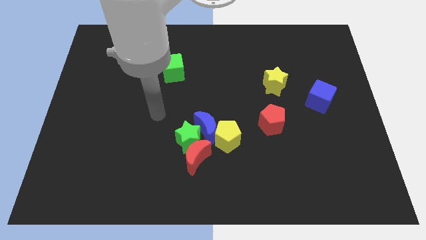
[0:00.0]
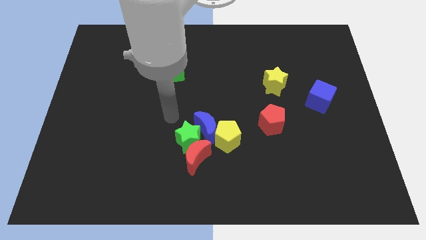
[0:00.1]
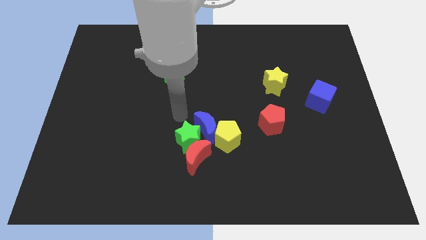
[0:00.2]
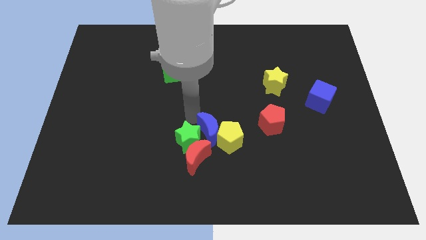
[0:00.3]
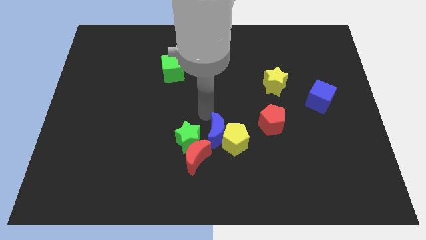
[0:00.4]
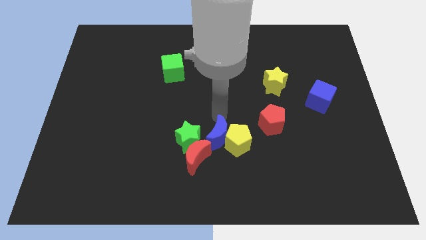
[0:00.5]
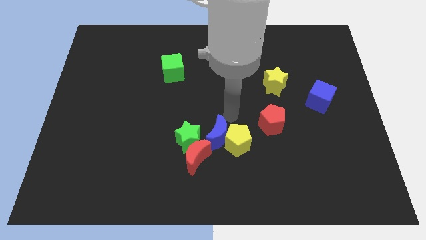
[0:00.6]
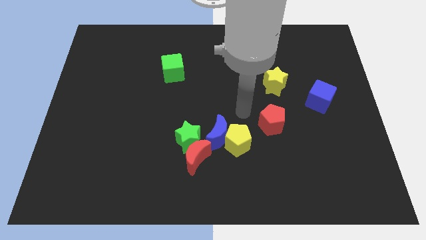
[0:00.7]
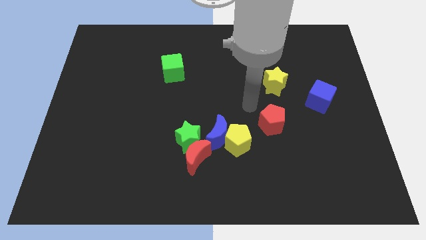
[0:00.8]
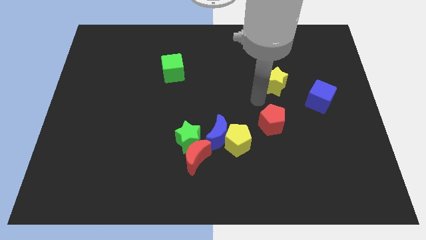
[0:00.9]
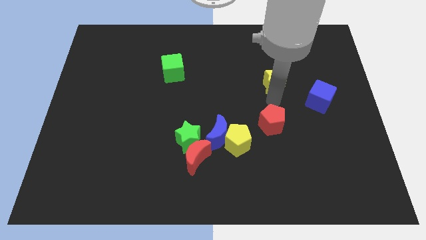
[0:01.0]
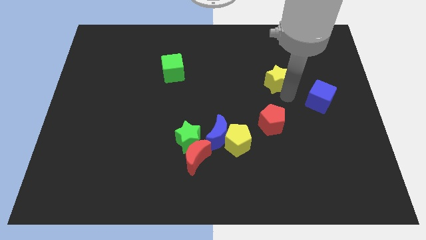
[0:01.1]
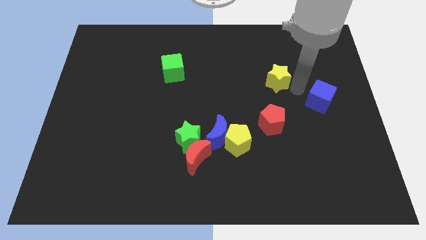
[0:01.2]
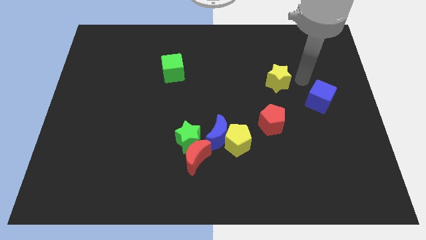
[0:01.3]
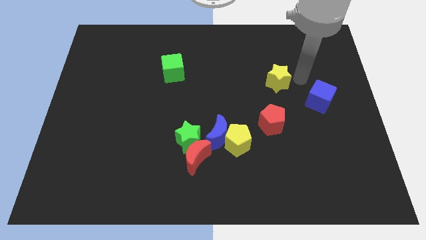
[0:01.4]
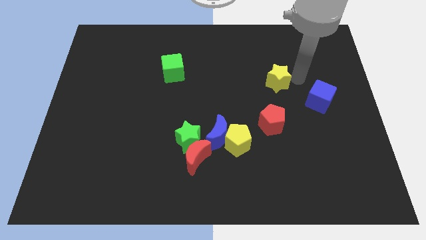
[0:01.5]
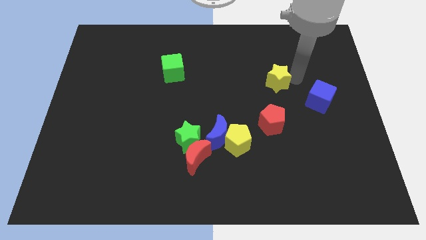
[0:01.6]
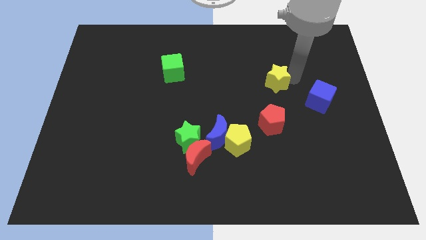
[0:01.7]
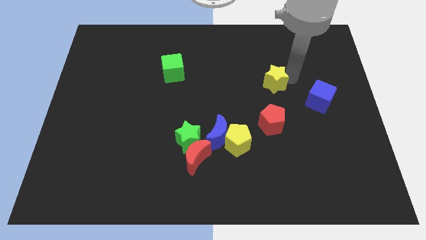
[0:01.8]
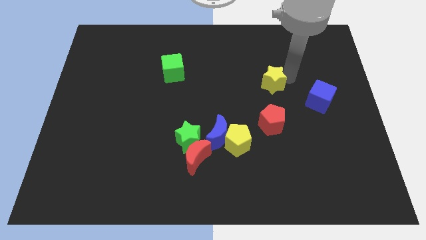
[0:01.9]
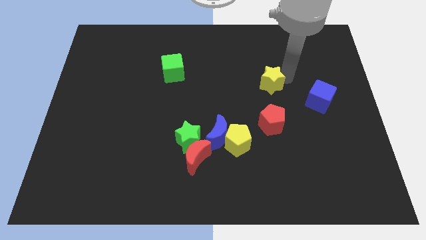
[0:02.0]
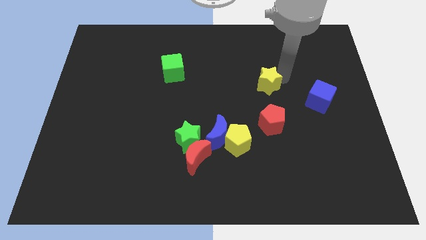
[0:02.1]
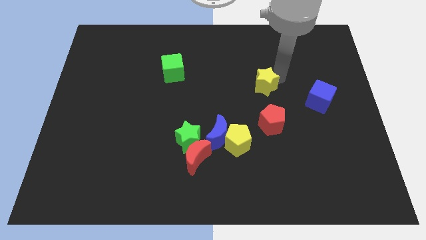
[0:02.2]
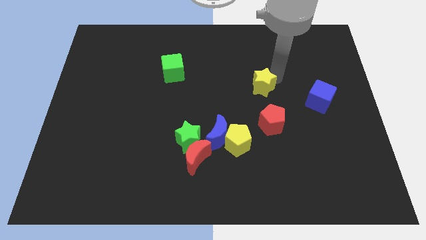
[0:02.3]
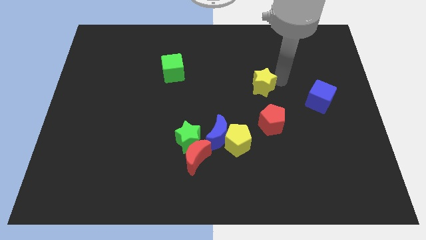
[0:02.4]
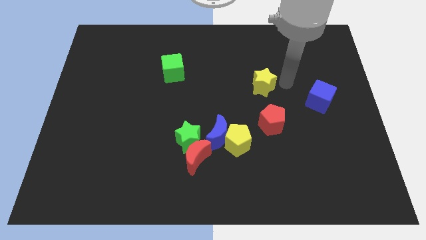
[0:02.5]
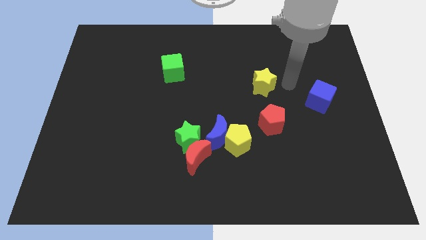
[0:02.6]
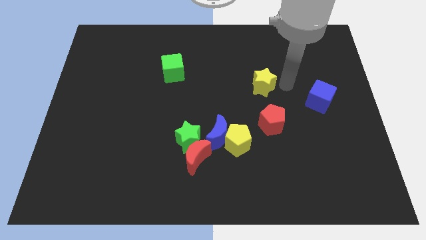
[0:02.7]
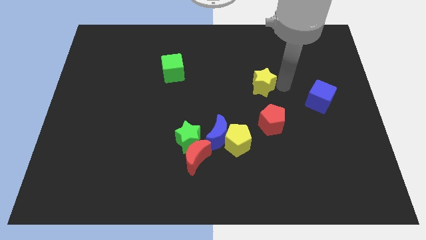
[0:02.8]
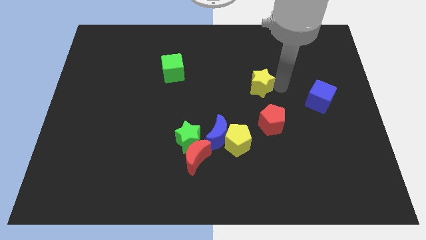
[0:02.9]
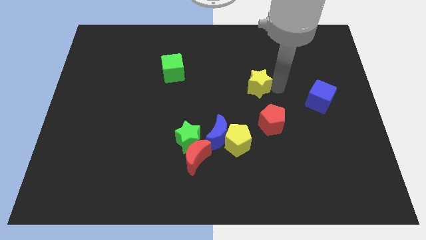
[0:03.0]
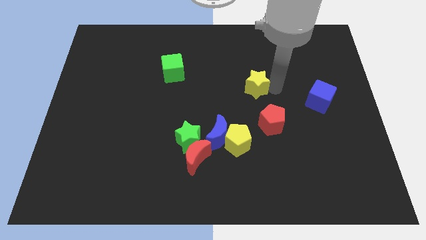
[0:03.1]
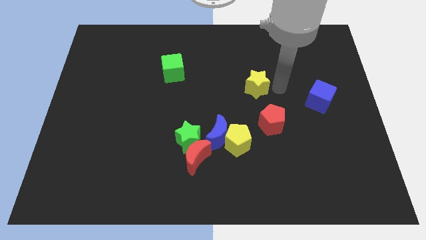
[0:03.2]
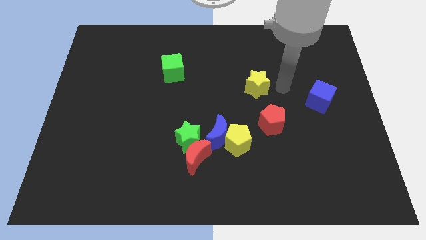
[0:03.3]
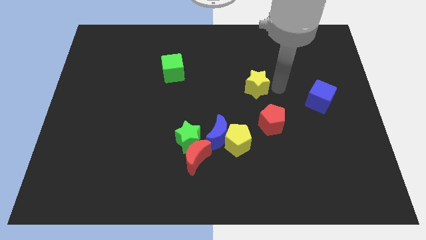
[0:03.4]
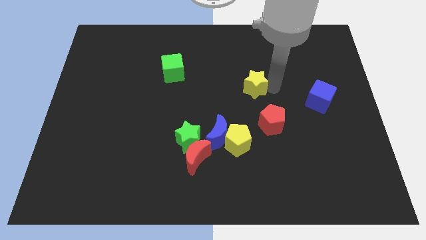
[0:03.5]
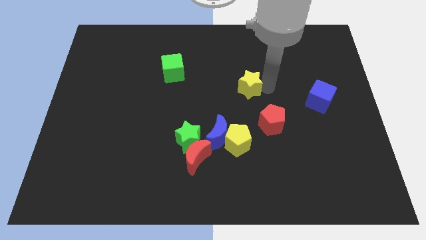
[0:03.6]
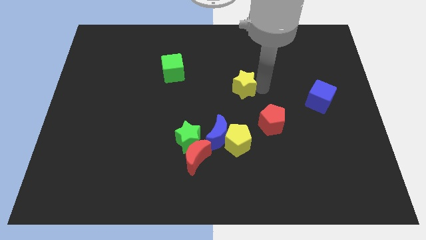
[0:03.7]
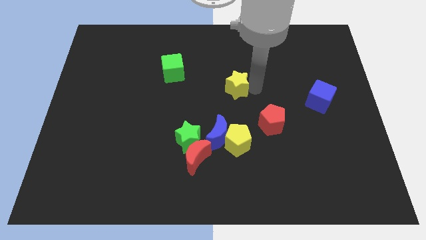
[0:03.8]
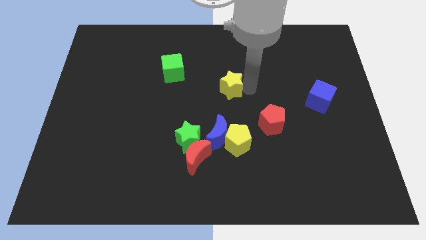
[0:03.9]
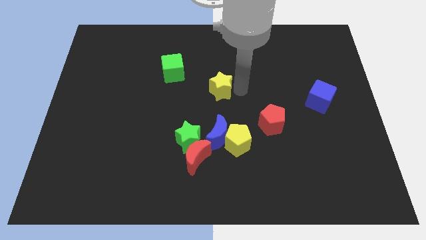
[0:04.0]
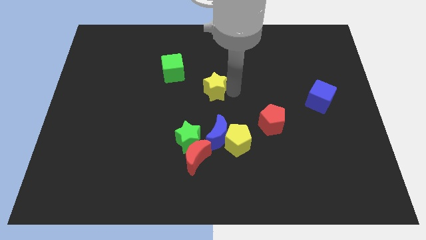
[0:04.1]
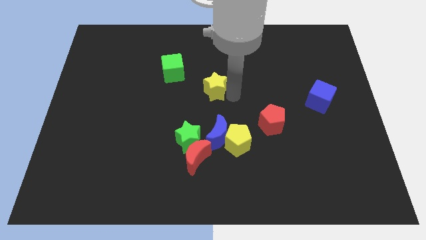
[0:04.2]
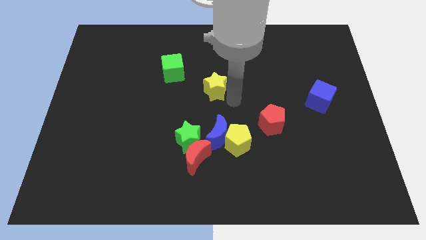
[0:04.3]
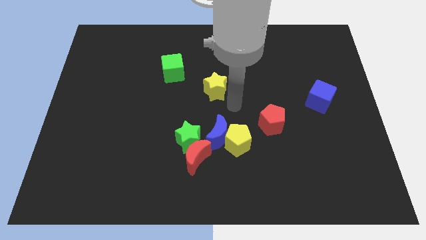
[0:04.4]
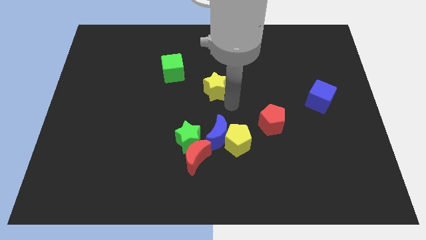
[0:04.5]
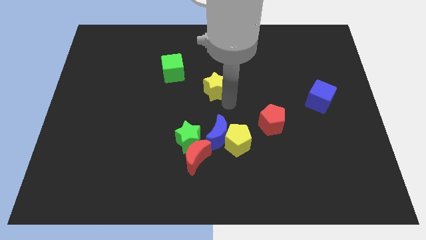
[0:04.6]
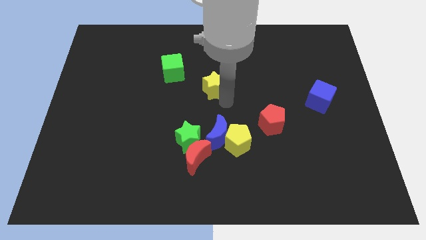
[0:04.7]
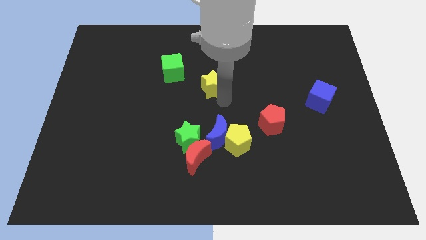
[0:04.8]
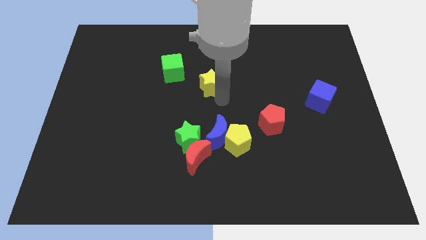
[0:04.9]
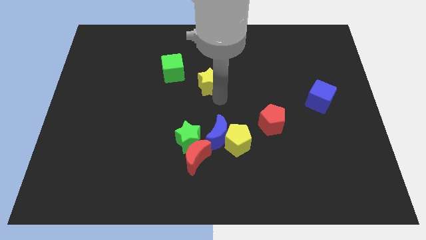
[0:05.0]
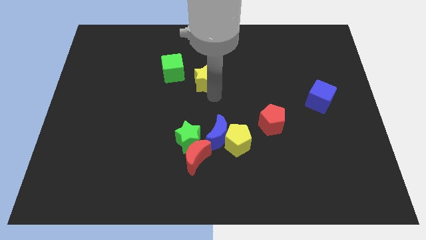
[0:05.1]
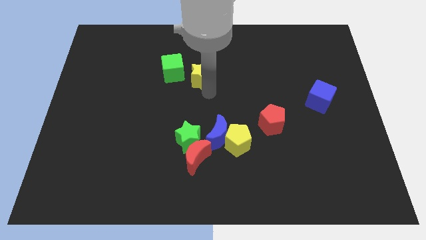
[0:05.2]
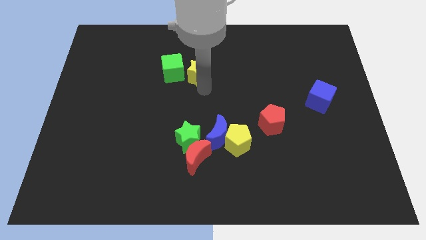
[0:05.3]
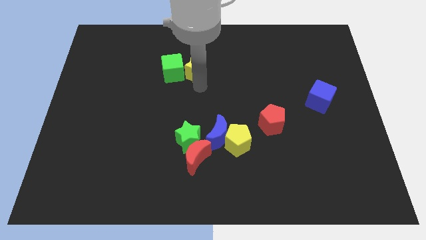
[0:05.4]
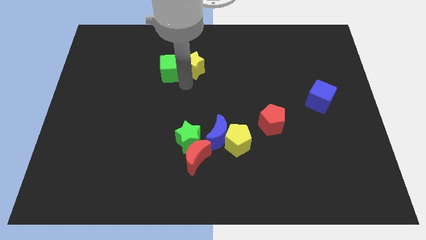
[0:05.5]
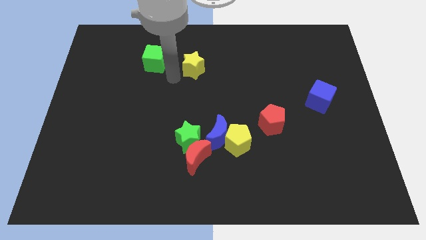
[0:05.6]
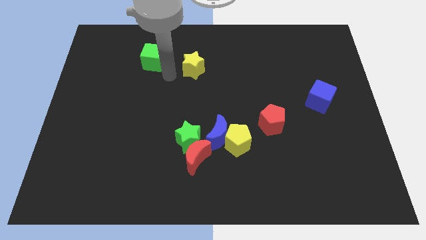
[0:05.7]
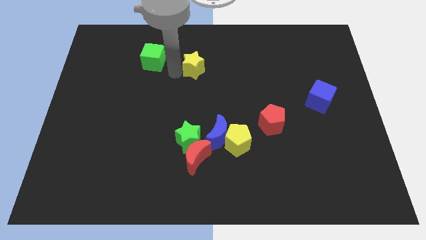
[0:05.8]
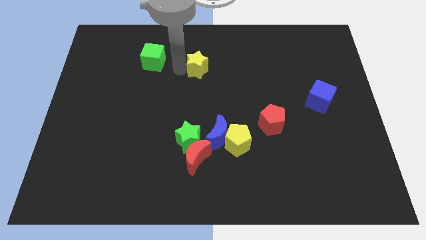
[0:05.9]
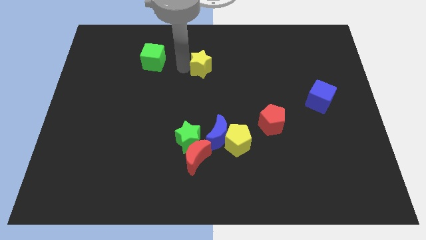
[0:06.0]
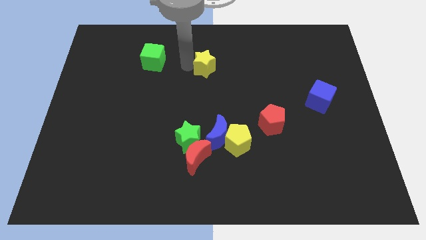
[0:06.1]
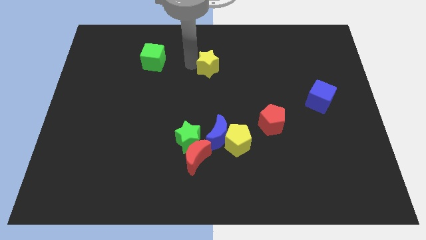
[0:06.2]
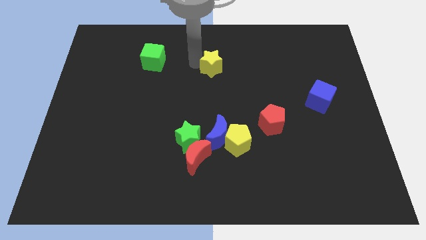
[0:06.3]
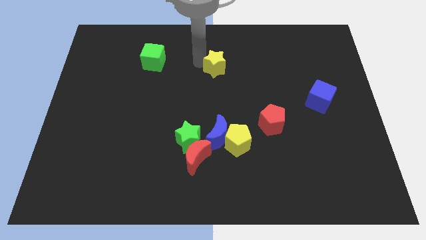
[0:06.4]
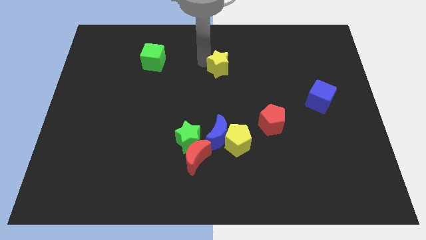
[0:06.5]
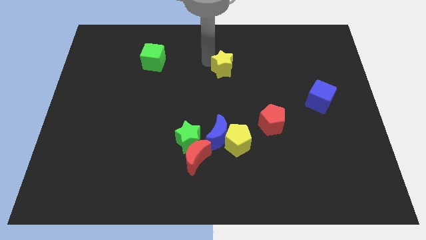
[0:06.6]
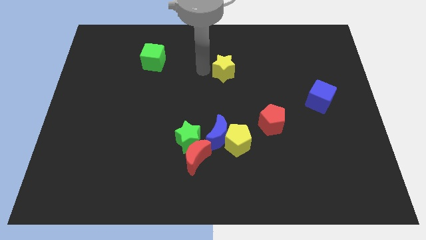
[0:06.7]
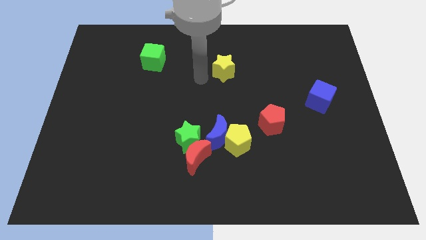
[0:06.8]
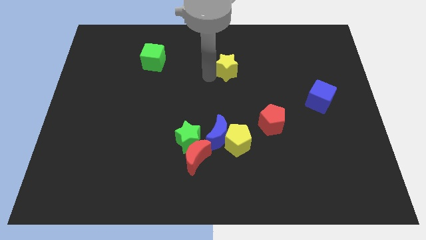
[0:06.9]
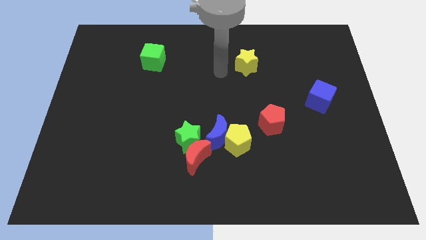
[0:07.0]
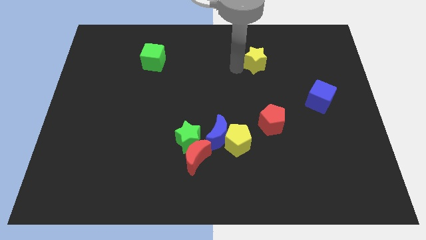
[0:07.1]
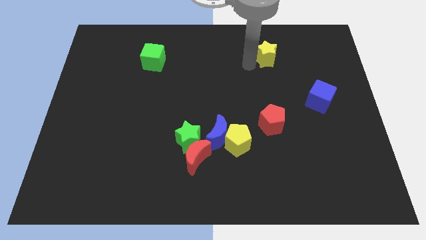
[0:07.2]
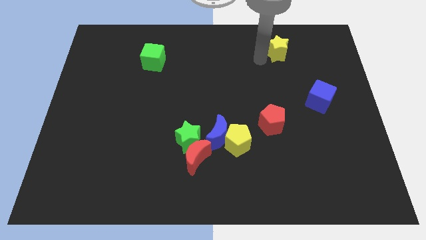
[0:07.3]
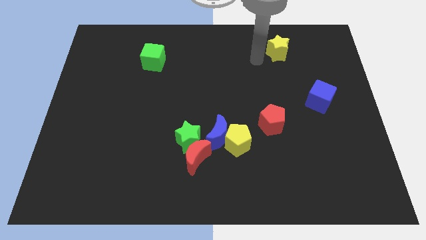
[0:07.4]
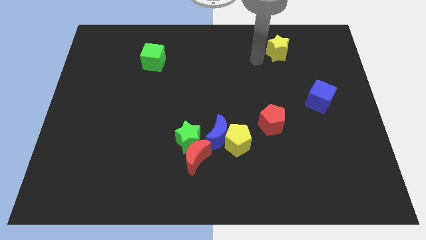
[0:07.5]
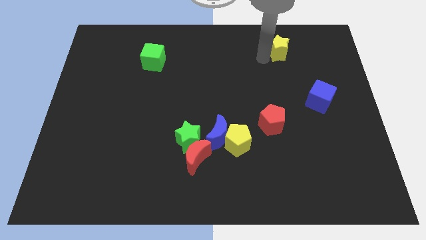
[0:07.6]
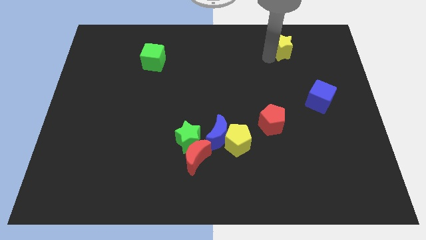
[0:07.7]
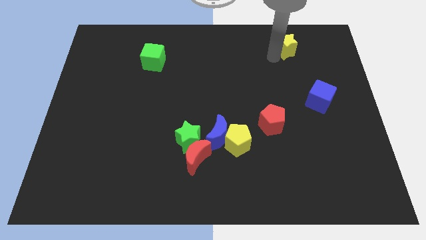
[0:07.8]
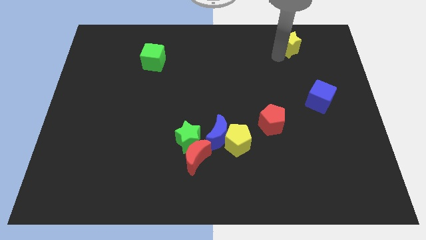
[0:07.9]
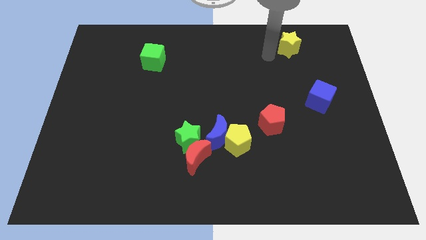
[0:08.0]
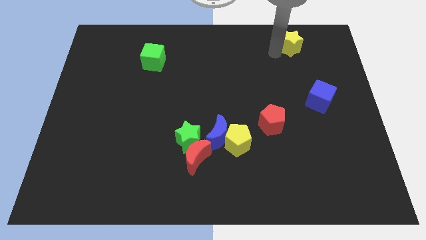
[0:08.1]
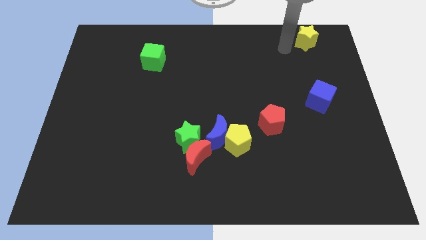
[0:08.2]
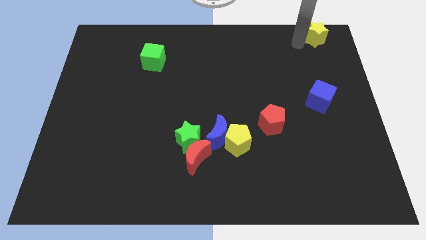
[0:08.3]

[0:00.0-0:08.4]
put the yellow star to the top right of the board
